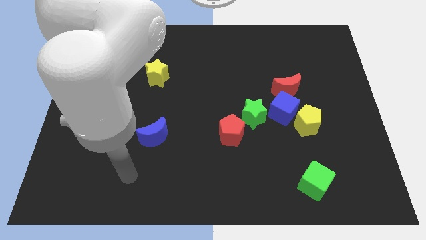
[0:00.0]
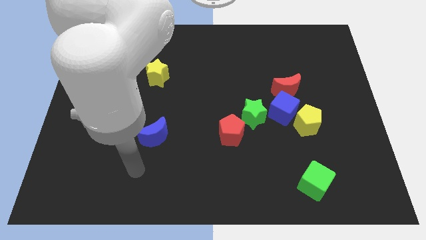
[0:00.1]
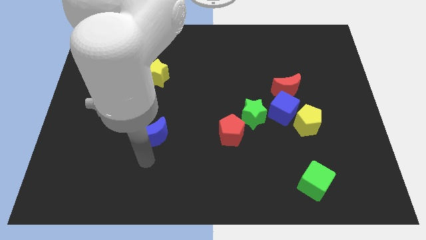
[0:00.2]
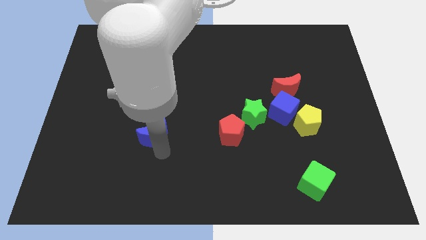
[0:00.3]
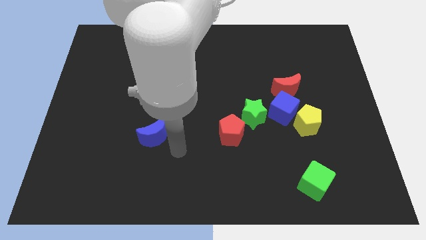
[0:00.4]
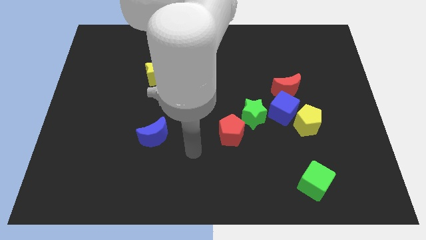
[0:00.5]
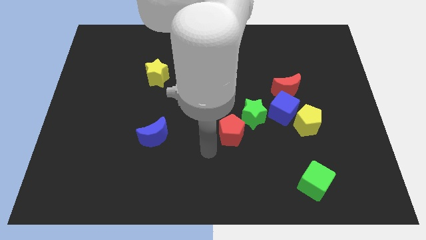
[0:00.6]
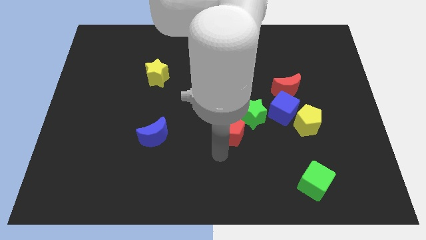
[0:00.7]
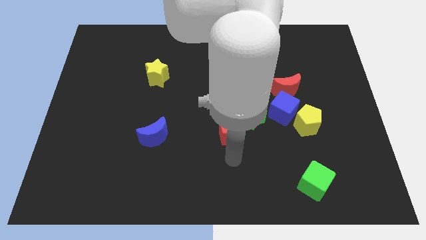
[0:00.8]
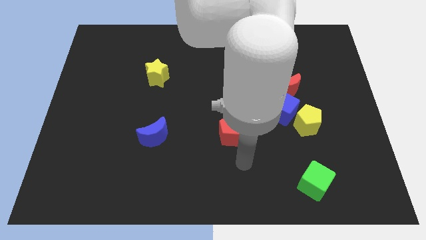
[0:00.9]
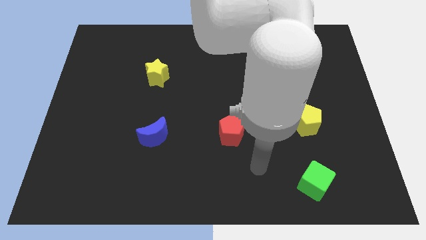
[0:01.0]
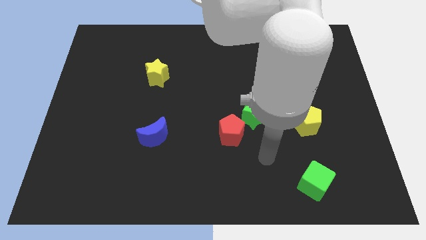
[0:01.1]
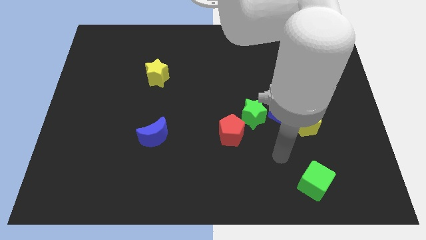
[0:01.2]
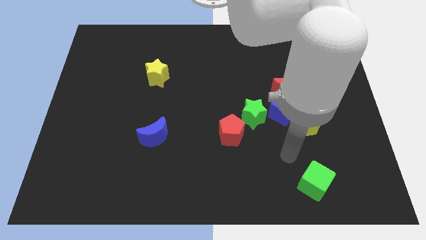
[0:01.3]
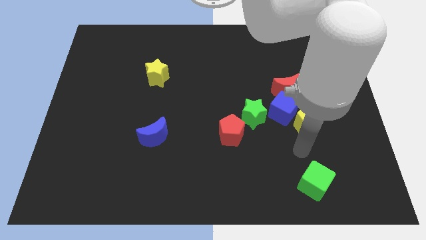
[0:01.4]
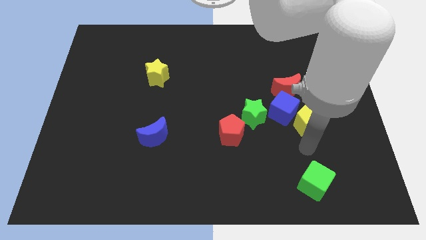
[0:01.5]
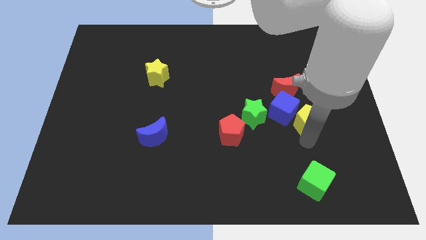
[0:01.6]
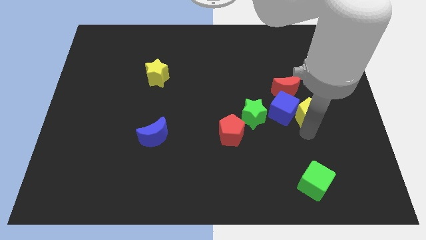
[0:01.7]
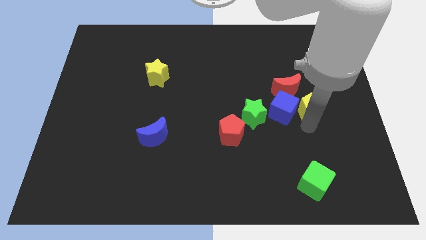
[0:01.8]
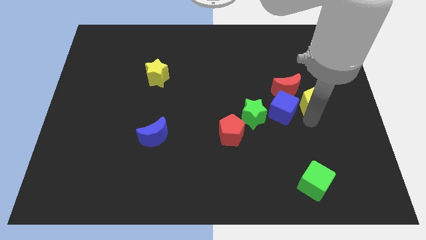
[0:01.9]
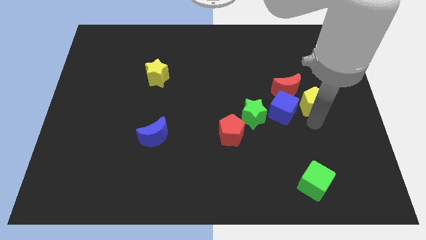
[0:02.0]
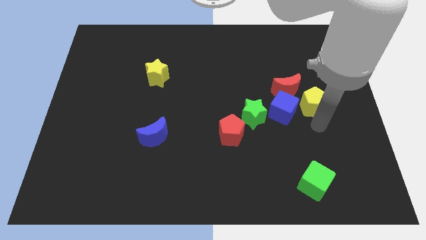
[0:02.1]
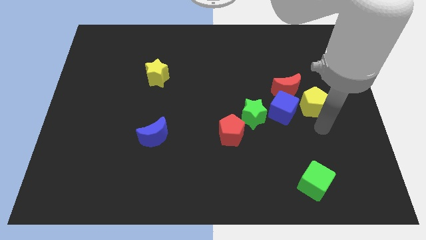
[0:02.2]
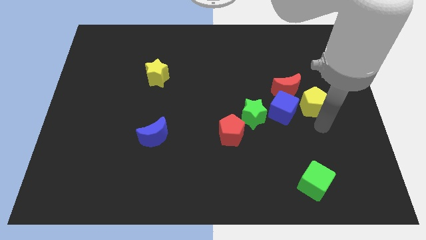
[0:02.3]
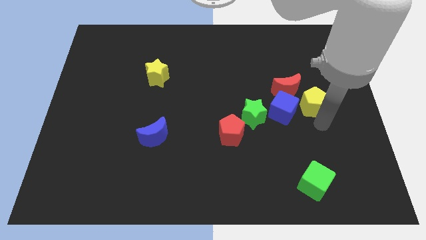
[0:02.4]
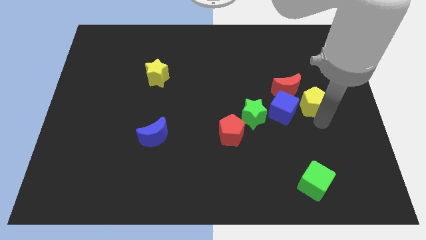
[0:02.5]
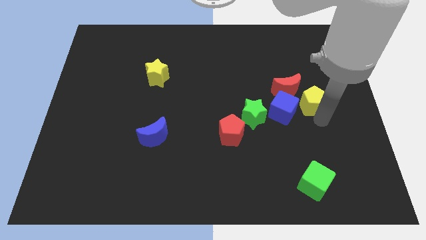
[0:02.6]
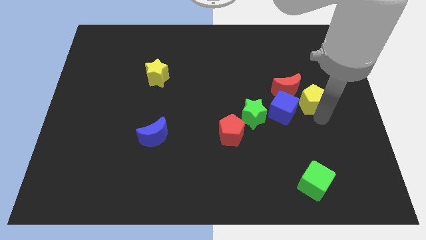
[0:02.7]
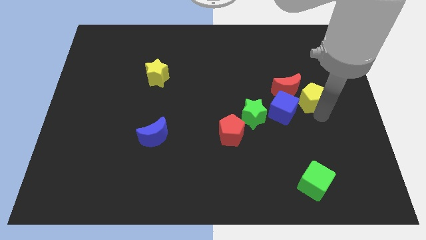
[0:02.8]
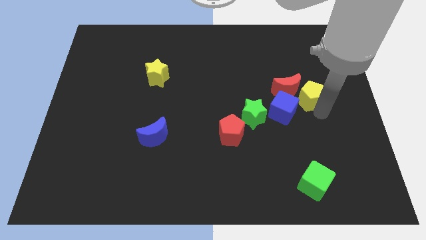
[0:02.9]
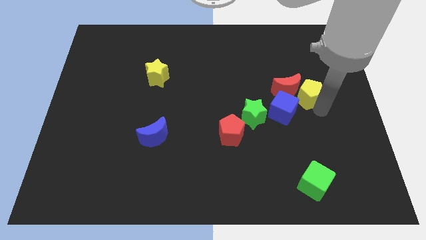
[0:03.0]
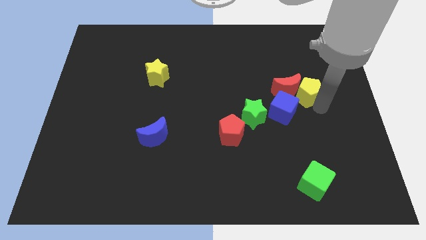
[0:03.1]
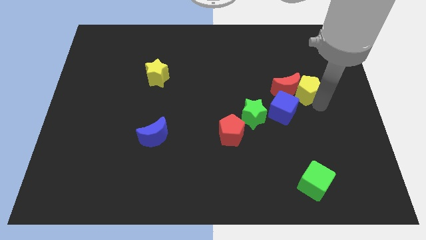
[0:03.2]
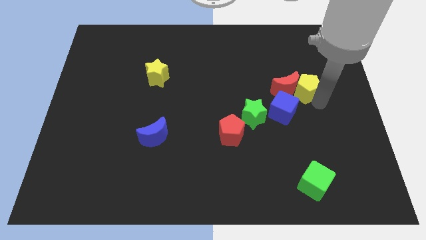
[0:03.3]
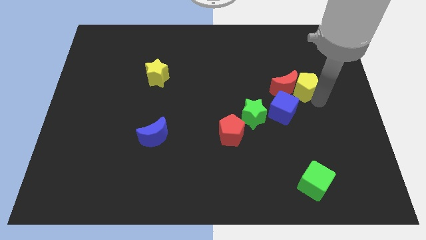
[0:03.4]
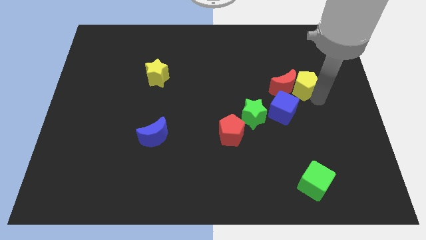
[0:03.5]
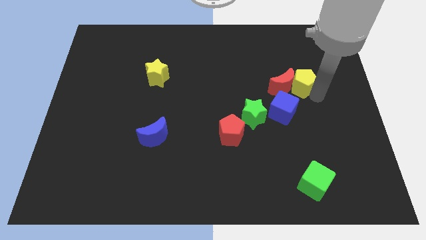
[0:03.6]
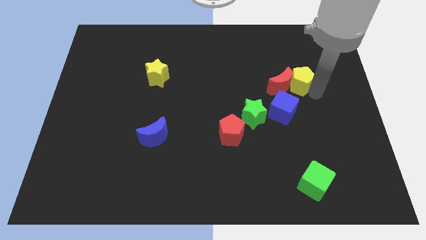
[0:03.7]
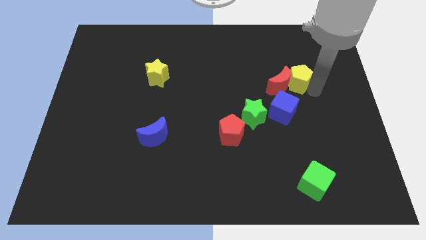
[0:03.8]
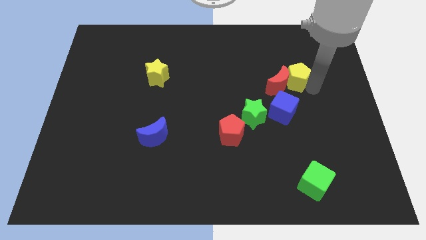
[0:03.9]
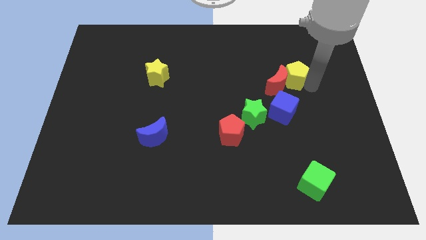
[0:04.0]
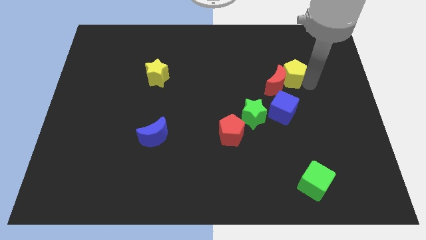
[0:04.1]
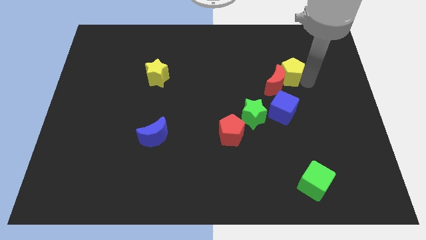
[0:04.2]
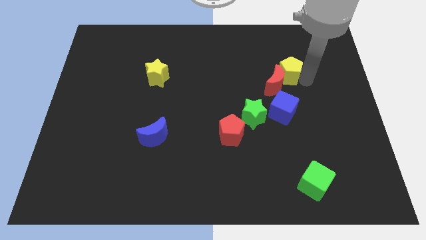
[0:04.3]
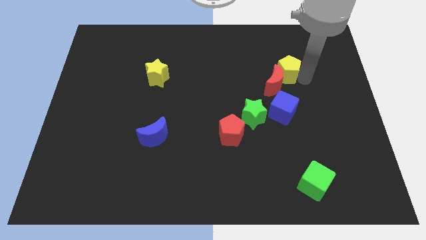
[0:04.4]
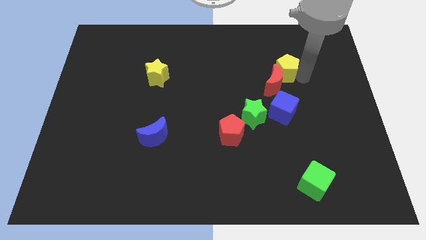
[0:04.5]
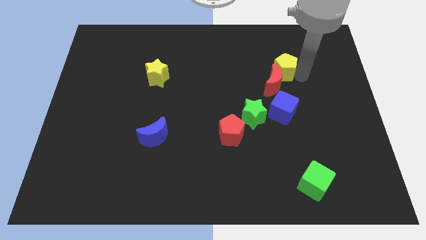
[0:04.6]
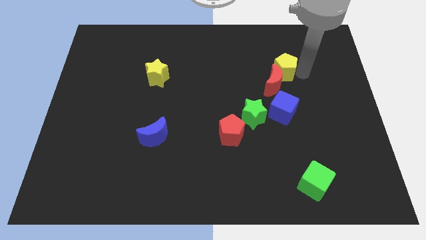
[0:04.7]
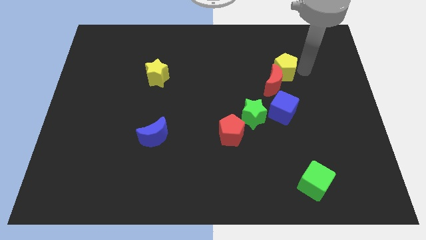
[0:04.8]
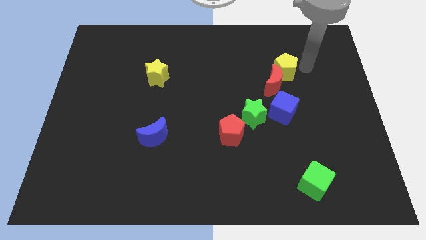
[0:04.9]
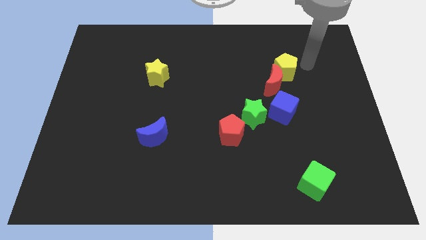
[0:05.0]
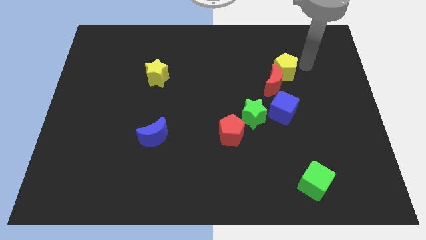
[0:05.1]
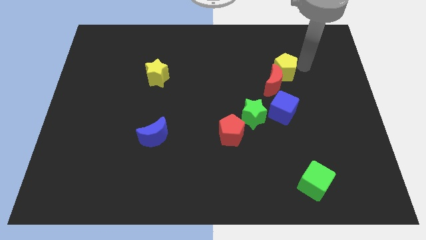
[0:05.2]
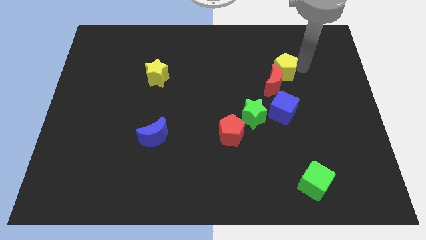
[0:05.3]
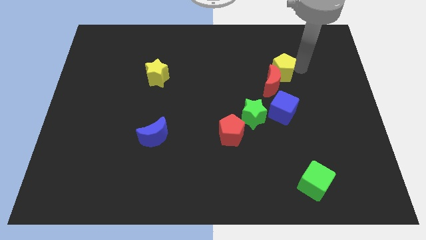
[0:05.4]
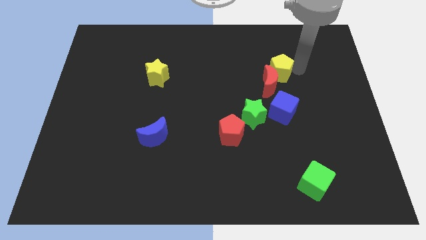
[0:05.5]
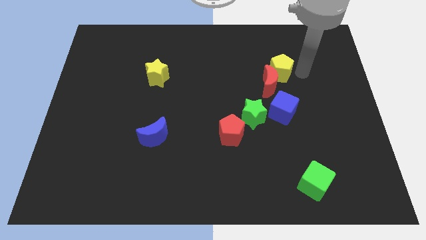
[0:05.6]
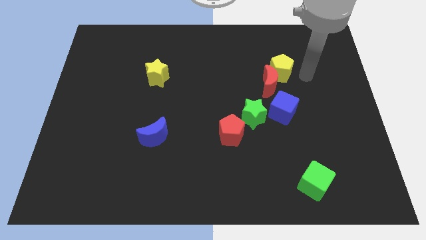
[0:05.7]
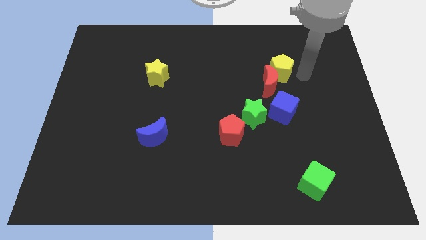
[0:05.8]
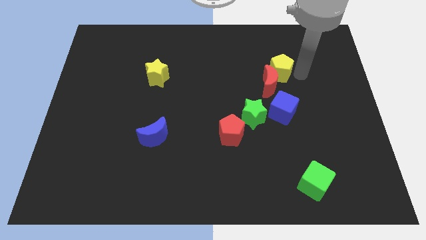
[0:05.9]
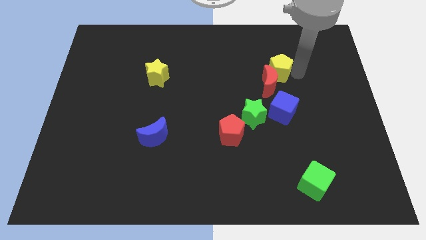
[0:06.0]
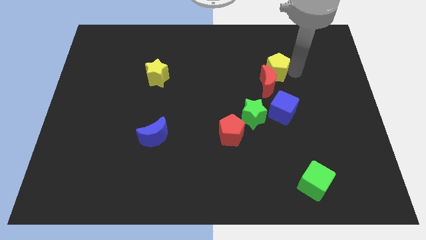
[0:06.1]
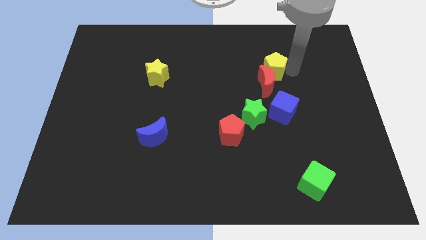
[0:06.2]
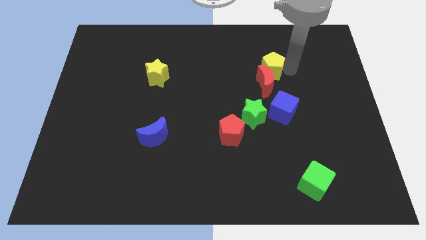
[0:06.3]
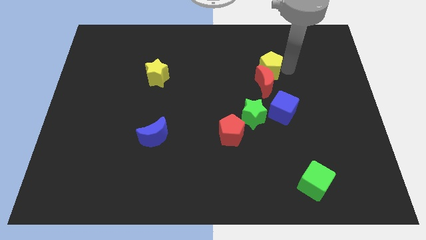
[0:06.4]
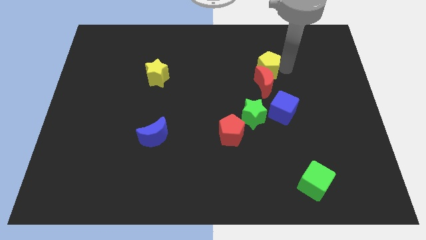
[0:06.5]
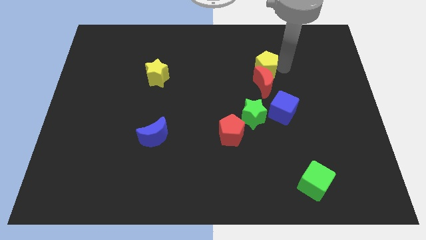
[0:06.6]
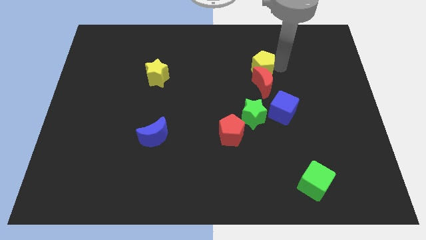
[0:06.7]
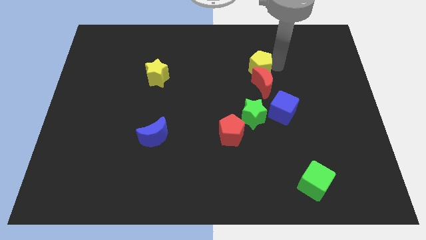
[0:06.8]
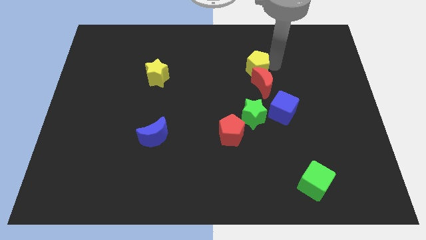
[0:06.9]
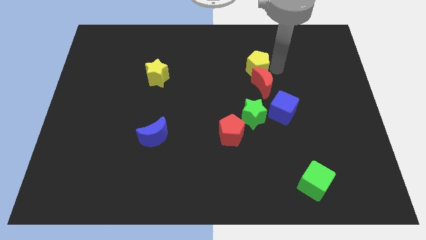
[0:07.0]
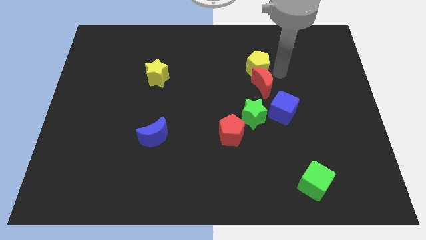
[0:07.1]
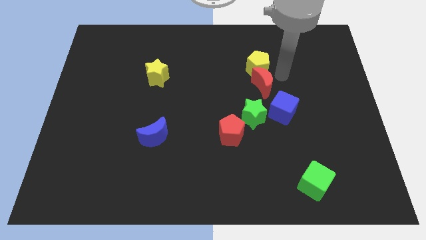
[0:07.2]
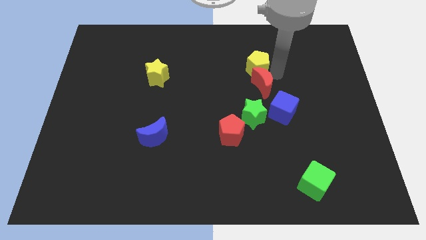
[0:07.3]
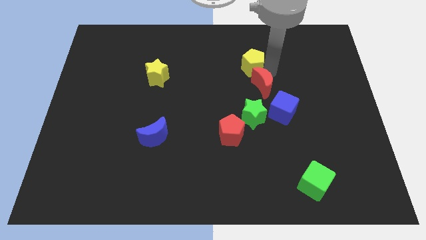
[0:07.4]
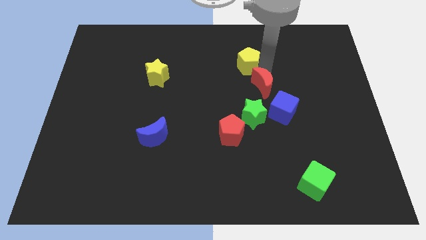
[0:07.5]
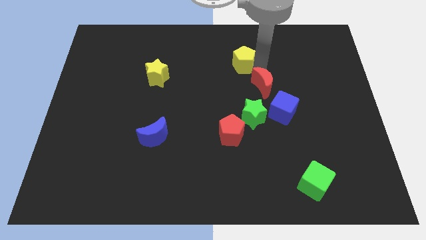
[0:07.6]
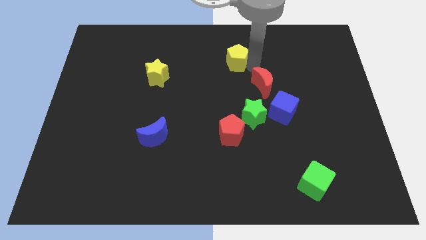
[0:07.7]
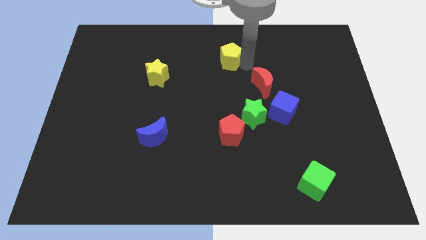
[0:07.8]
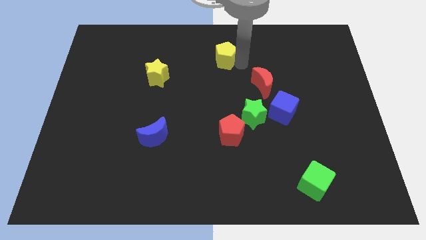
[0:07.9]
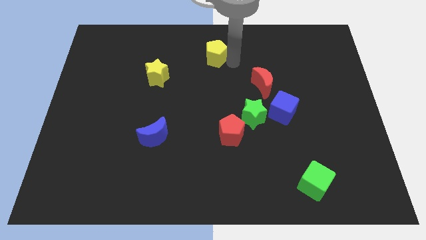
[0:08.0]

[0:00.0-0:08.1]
slide the yellow pentagon to the top side
